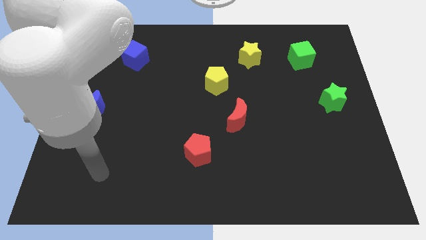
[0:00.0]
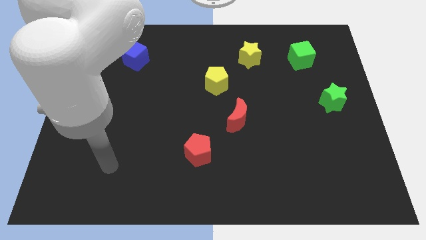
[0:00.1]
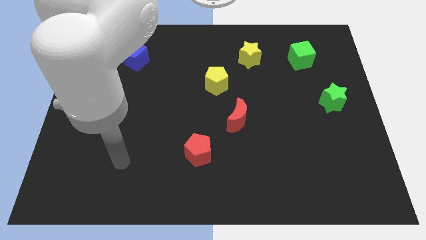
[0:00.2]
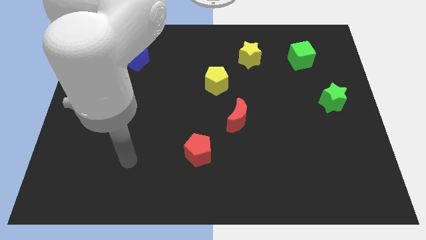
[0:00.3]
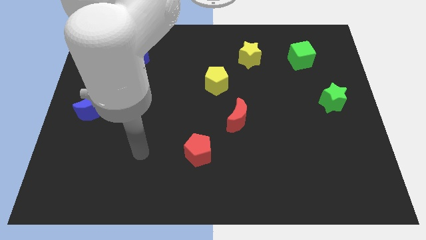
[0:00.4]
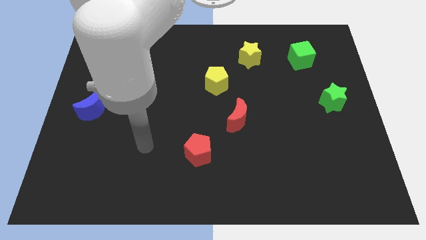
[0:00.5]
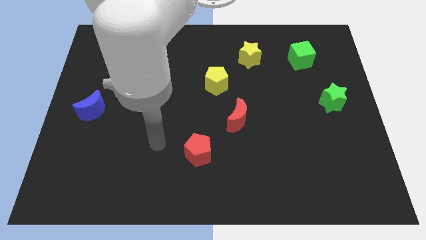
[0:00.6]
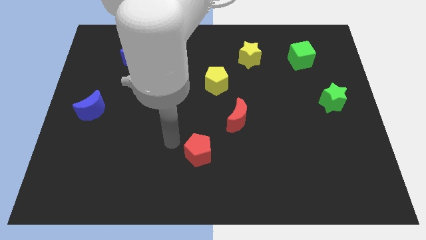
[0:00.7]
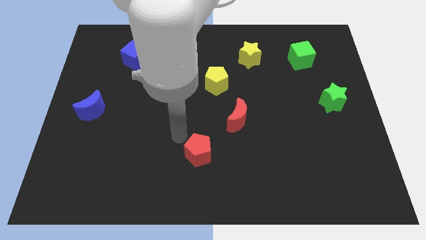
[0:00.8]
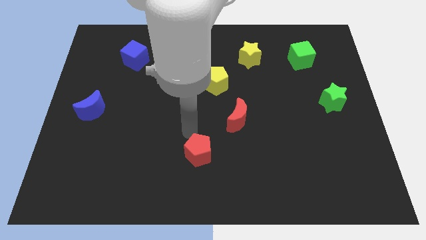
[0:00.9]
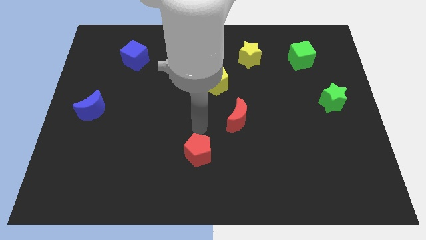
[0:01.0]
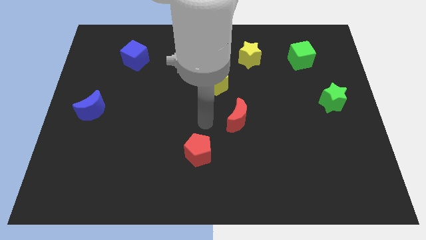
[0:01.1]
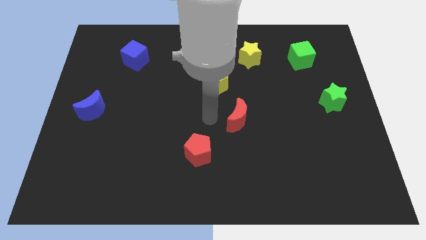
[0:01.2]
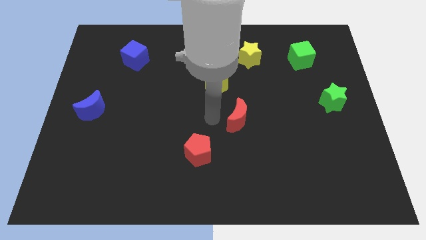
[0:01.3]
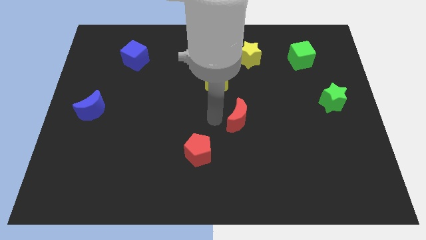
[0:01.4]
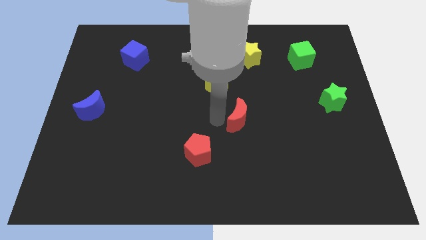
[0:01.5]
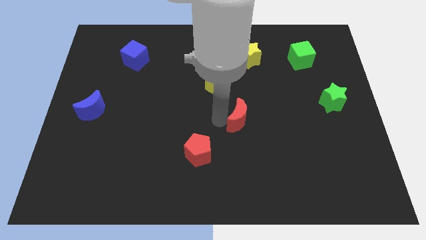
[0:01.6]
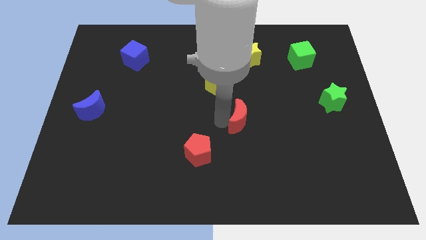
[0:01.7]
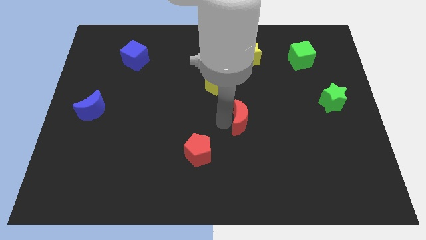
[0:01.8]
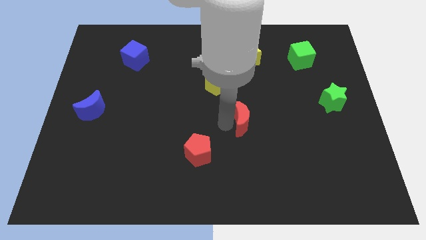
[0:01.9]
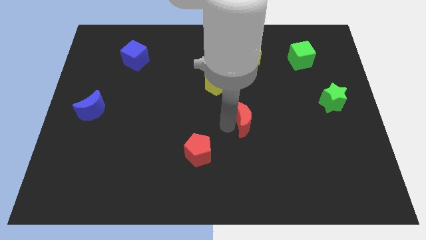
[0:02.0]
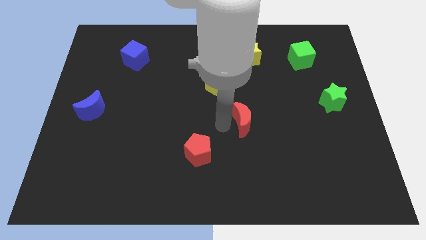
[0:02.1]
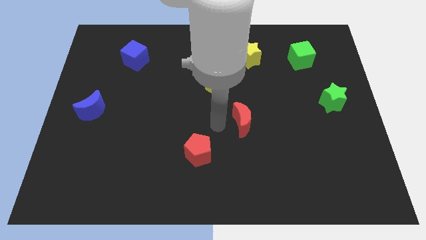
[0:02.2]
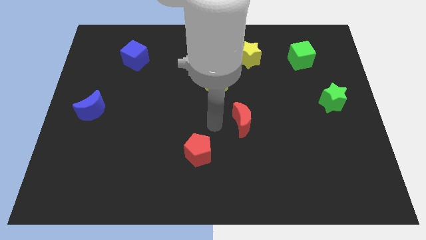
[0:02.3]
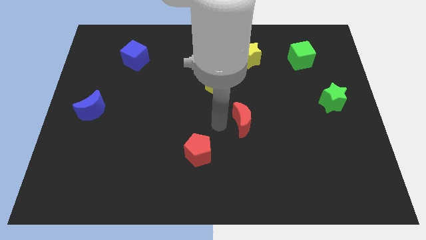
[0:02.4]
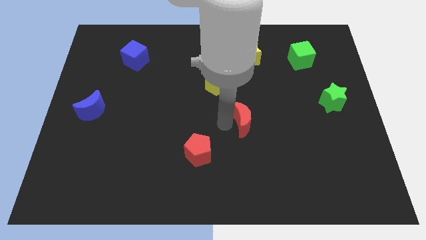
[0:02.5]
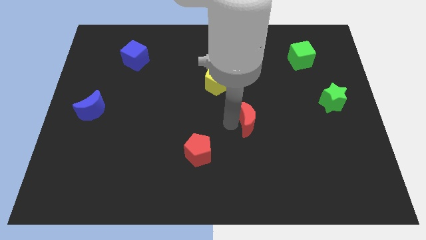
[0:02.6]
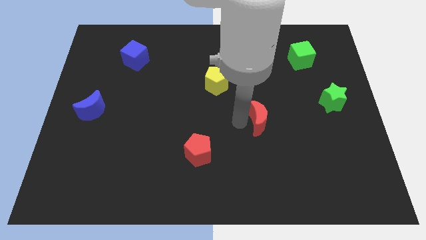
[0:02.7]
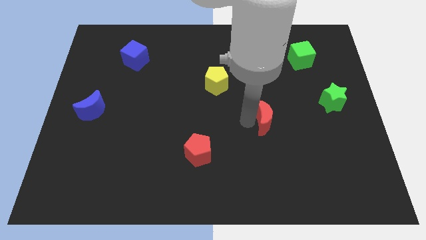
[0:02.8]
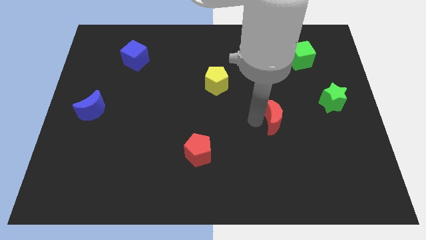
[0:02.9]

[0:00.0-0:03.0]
slide the red moon right a little

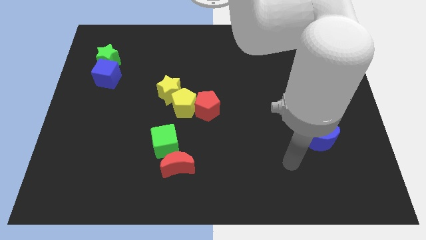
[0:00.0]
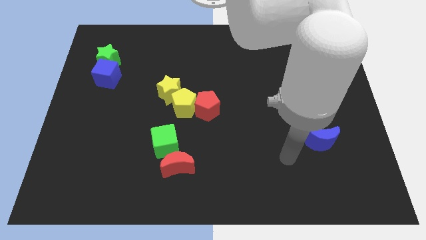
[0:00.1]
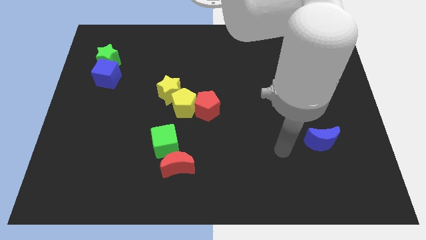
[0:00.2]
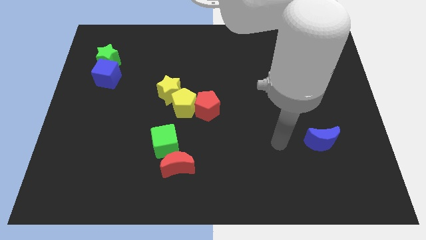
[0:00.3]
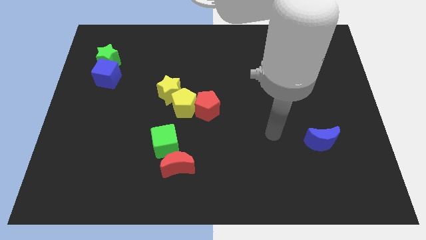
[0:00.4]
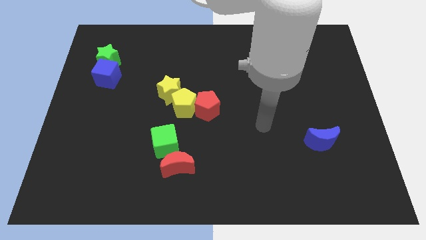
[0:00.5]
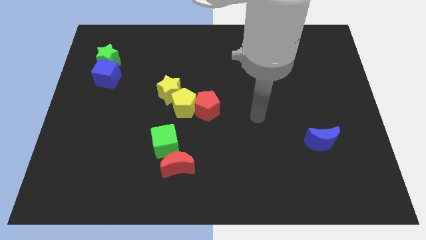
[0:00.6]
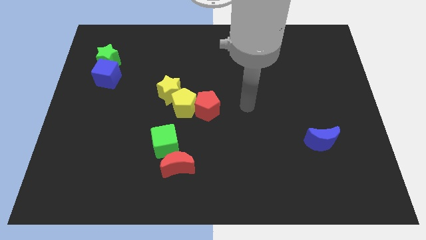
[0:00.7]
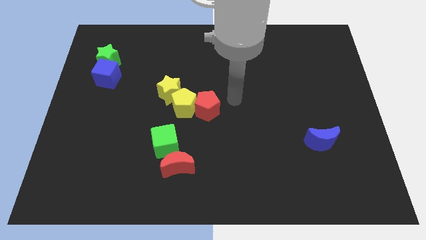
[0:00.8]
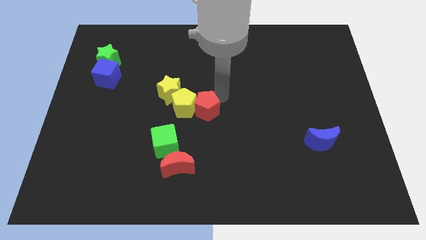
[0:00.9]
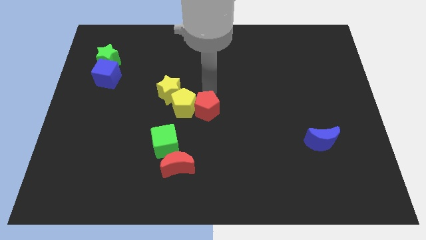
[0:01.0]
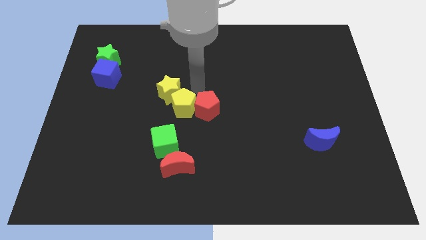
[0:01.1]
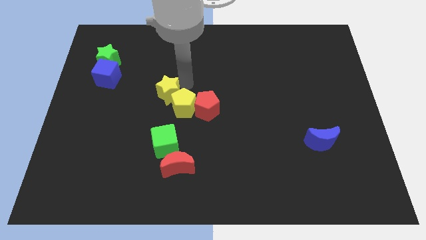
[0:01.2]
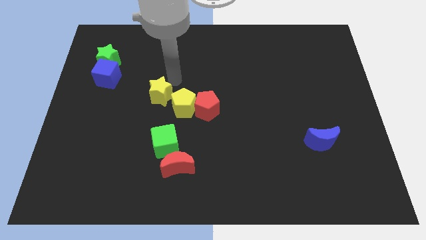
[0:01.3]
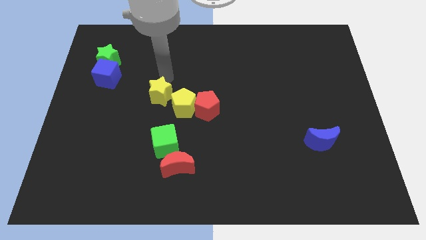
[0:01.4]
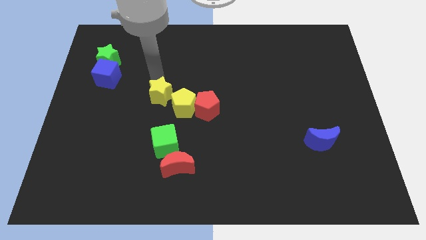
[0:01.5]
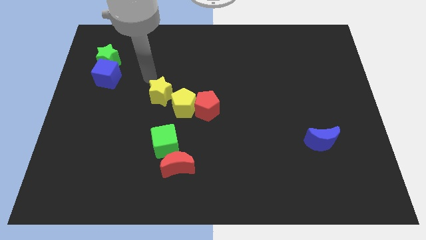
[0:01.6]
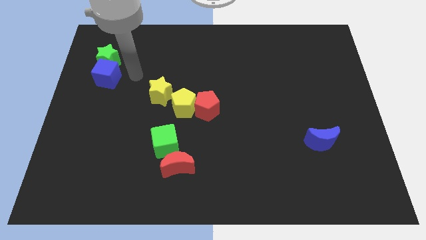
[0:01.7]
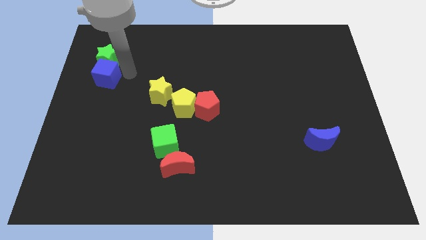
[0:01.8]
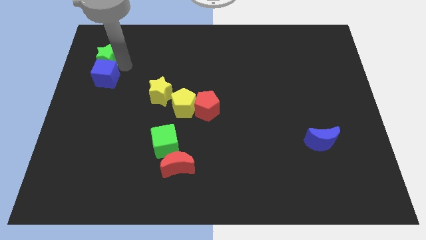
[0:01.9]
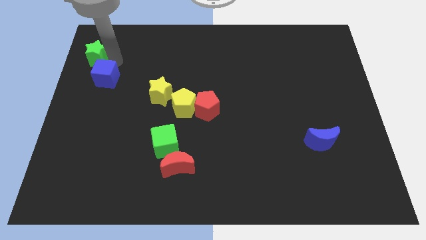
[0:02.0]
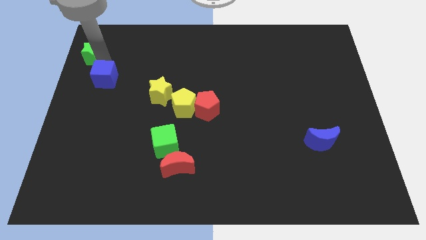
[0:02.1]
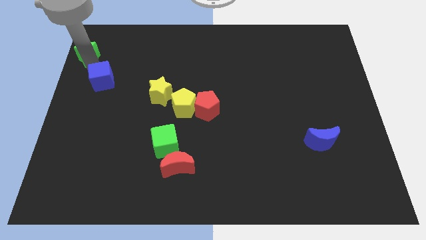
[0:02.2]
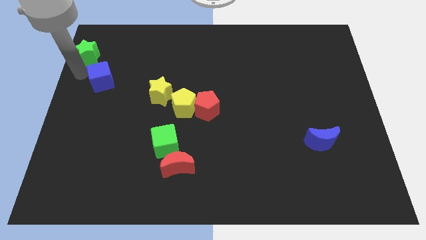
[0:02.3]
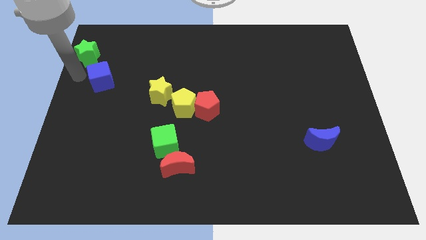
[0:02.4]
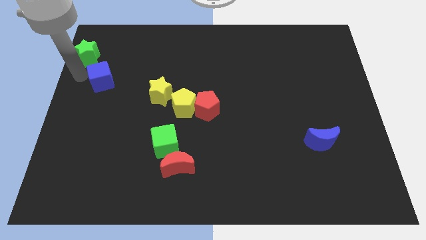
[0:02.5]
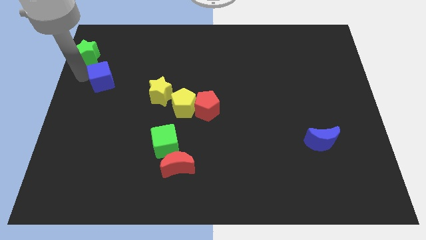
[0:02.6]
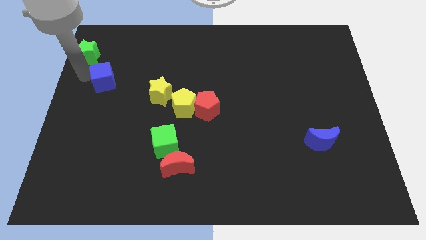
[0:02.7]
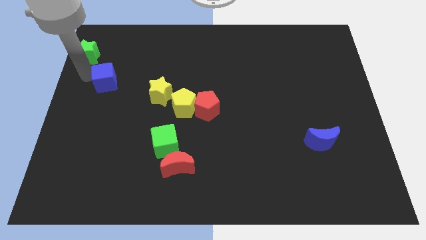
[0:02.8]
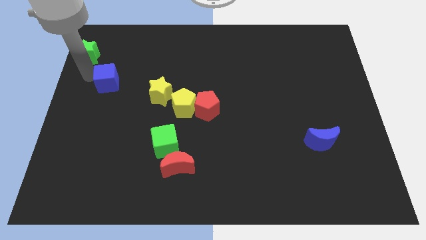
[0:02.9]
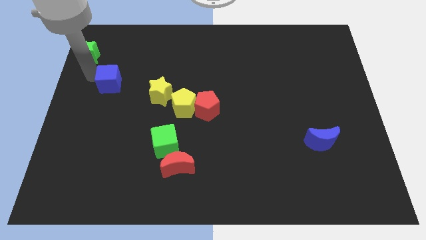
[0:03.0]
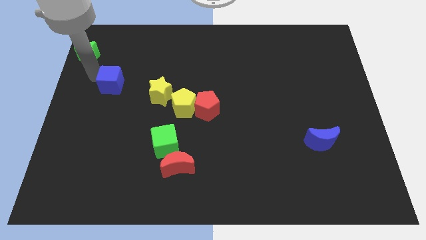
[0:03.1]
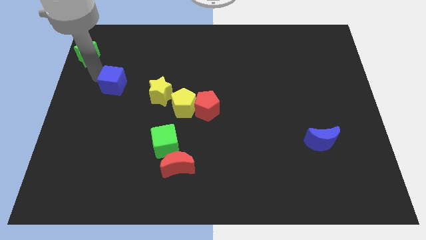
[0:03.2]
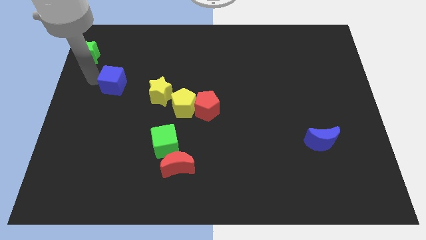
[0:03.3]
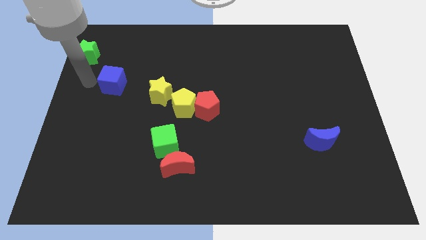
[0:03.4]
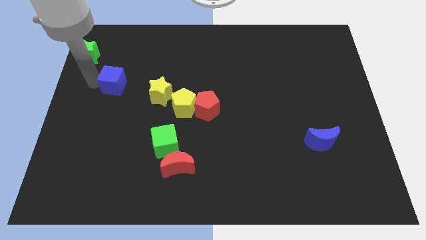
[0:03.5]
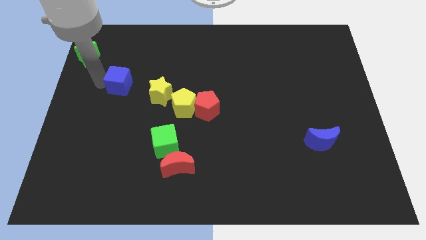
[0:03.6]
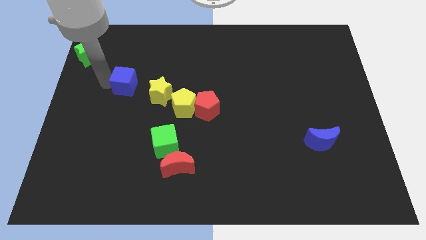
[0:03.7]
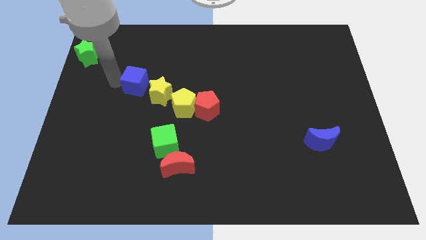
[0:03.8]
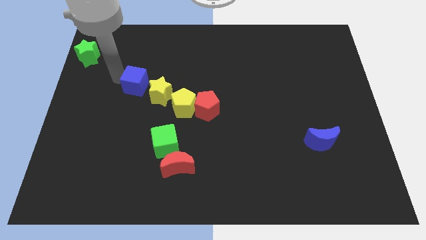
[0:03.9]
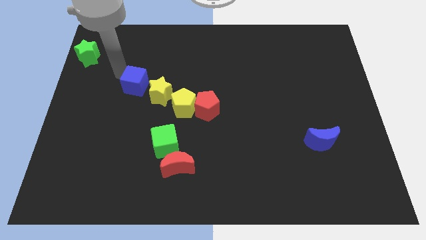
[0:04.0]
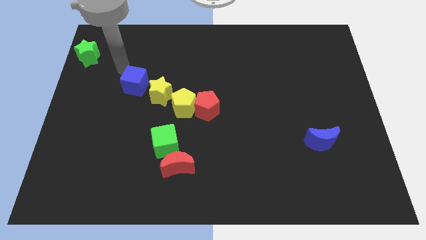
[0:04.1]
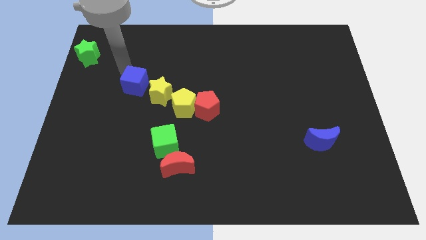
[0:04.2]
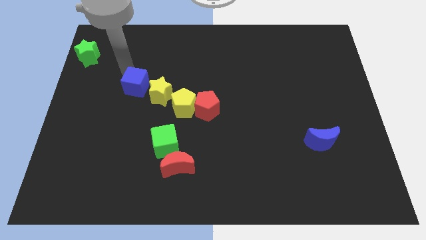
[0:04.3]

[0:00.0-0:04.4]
push the blue cube diagonally downwards and to the right somewhat

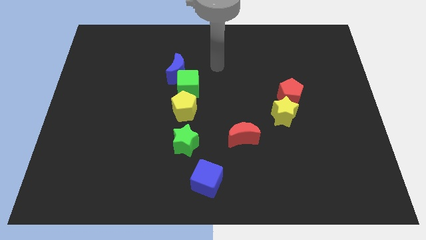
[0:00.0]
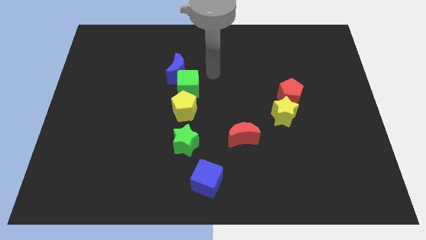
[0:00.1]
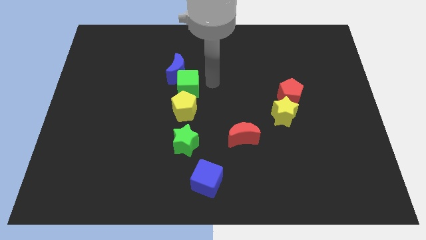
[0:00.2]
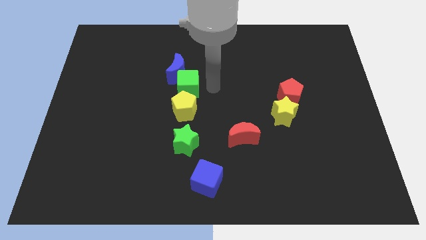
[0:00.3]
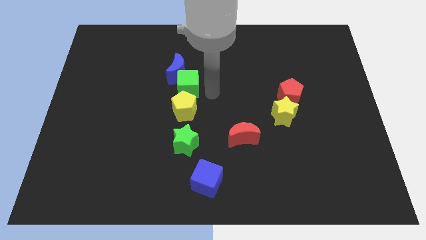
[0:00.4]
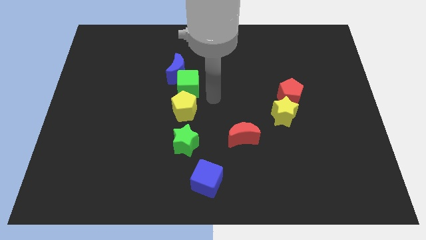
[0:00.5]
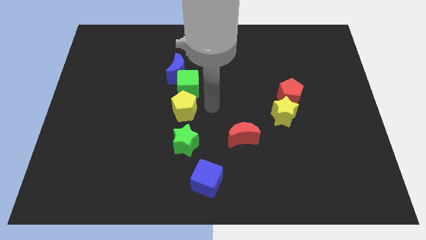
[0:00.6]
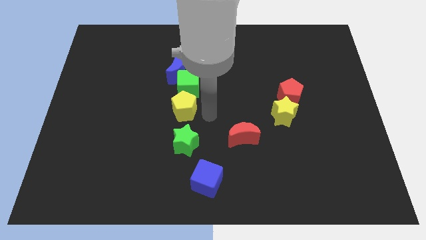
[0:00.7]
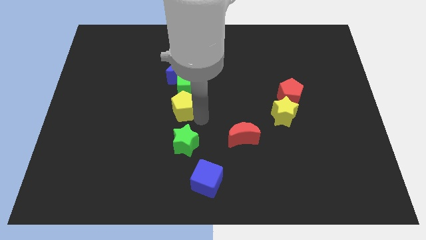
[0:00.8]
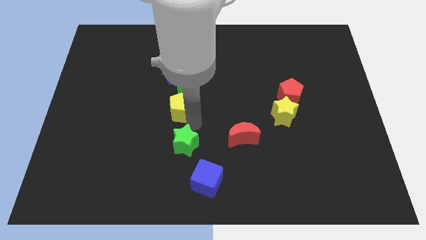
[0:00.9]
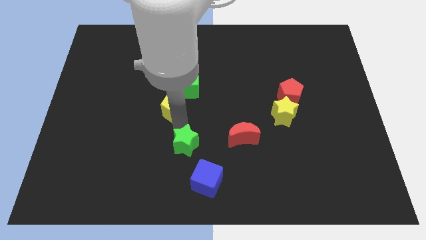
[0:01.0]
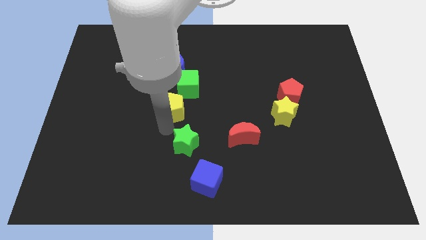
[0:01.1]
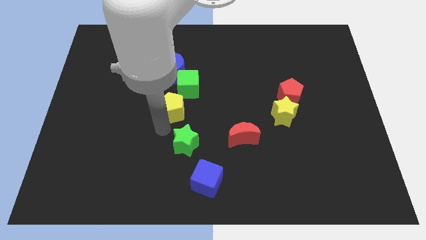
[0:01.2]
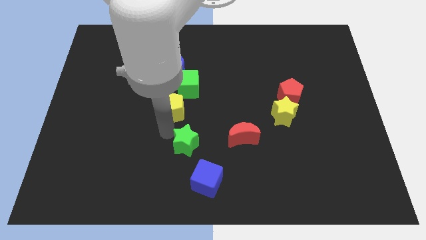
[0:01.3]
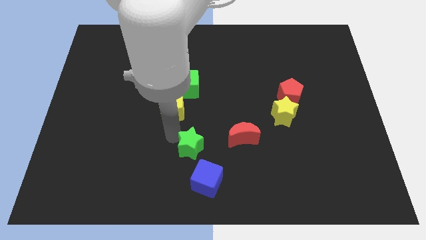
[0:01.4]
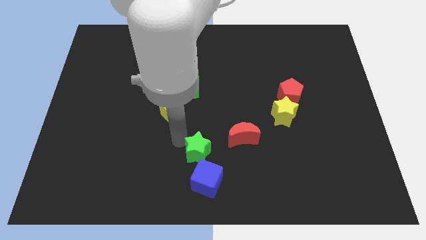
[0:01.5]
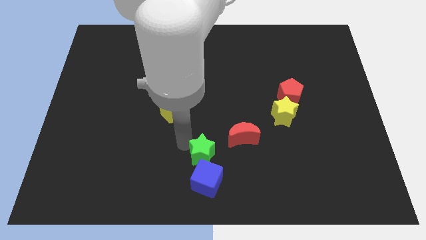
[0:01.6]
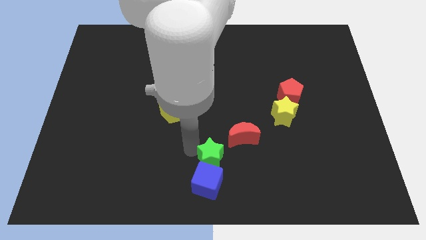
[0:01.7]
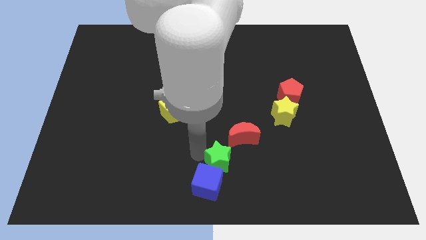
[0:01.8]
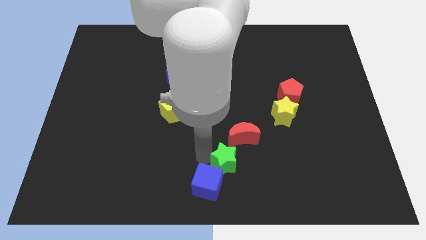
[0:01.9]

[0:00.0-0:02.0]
push the green star right somewhat
